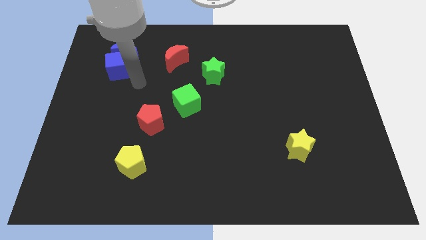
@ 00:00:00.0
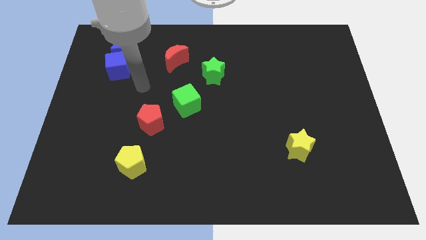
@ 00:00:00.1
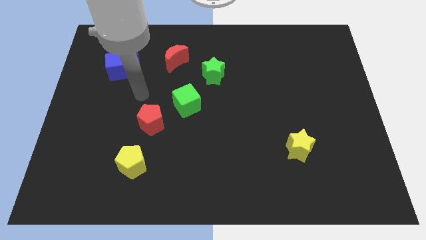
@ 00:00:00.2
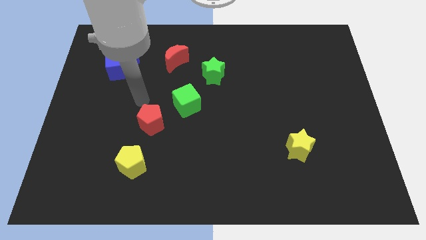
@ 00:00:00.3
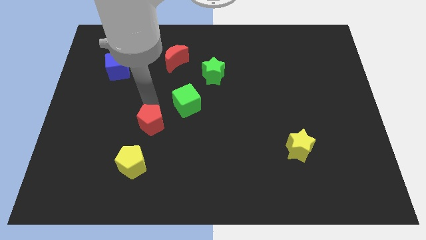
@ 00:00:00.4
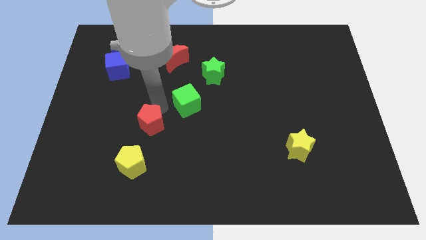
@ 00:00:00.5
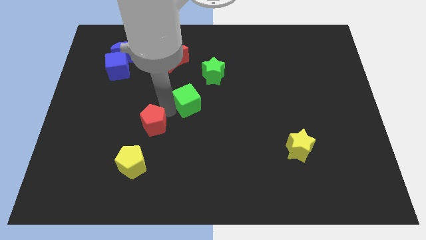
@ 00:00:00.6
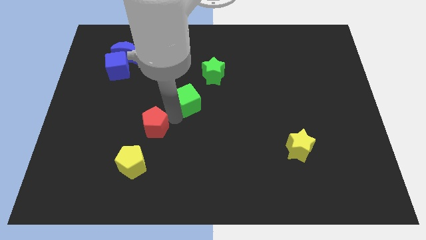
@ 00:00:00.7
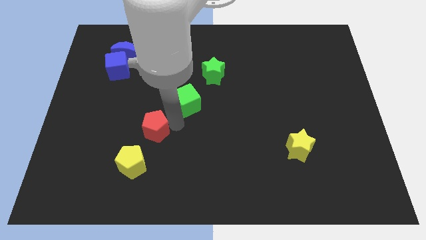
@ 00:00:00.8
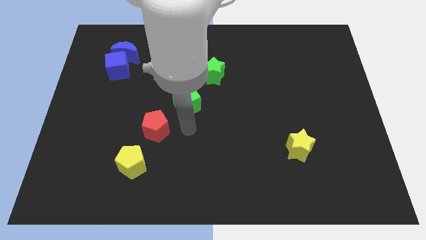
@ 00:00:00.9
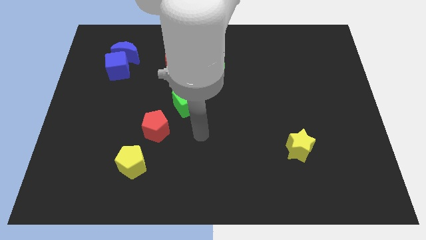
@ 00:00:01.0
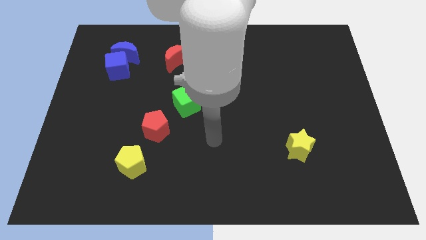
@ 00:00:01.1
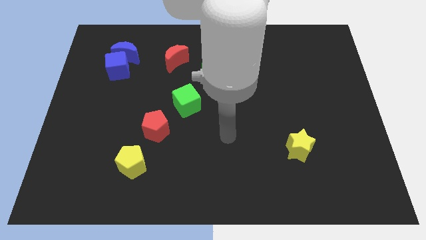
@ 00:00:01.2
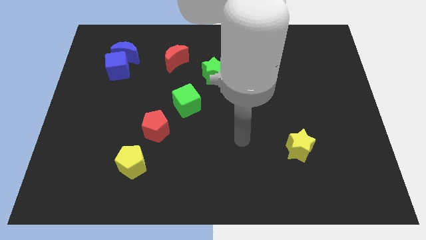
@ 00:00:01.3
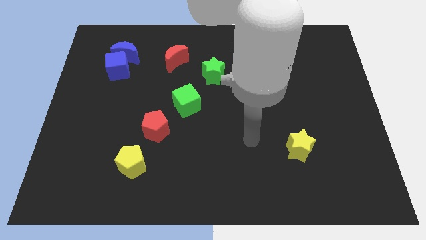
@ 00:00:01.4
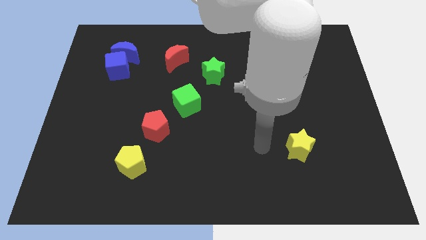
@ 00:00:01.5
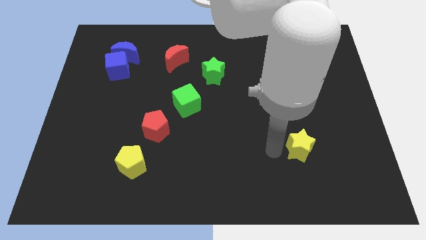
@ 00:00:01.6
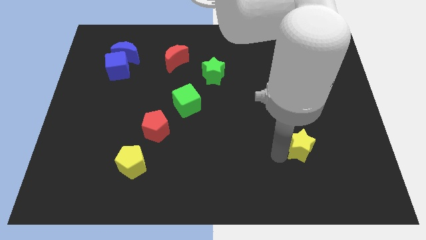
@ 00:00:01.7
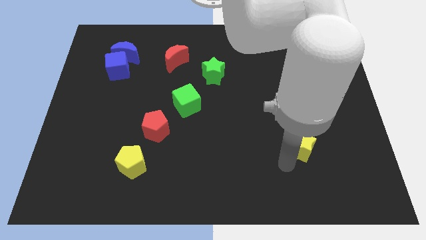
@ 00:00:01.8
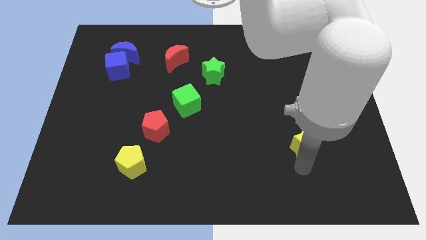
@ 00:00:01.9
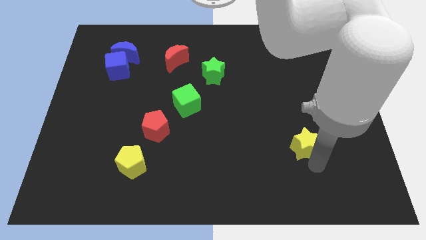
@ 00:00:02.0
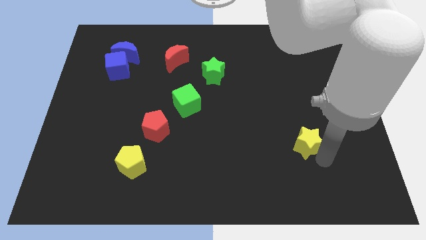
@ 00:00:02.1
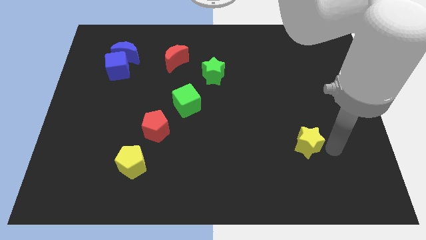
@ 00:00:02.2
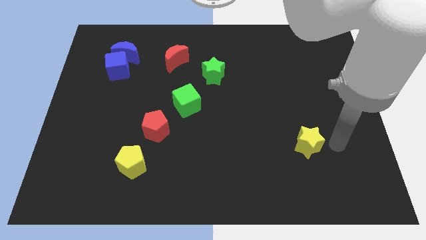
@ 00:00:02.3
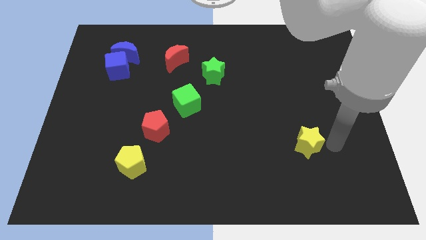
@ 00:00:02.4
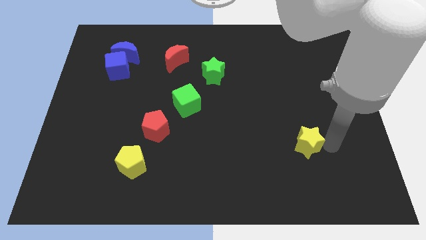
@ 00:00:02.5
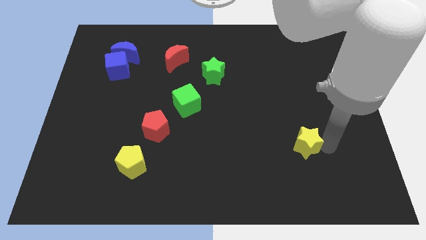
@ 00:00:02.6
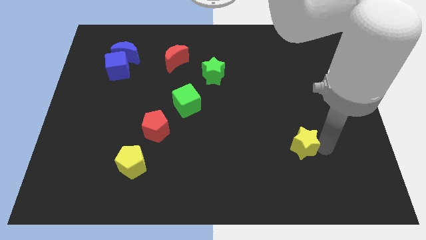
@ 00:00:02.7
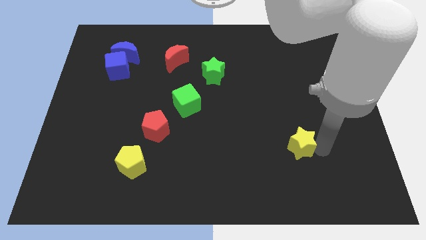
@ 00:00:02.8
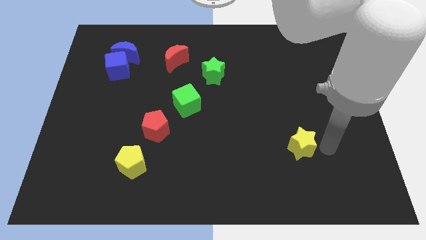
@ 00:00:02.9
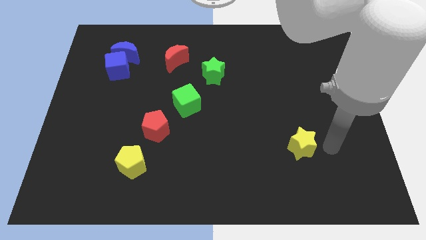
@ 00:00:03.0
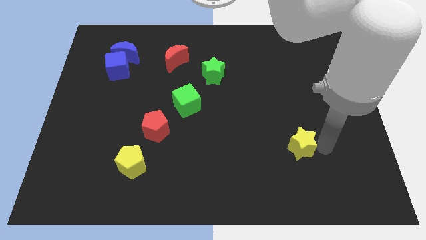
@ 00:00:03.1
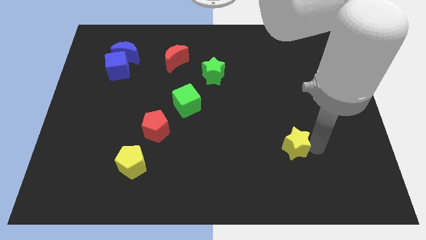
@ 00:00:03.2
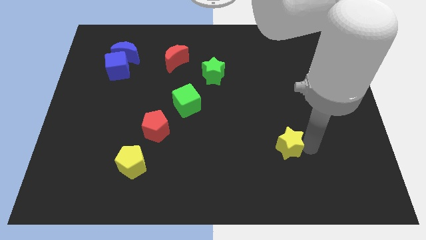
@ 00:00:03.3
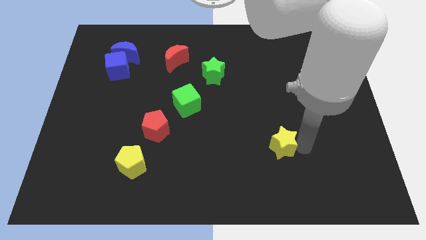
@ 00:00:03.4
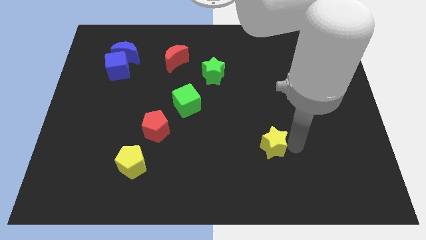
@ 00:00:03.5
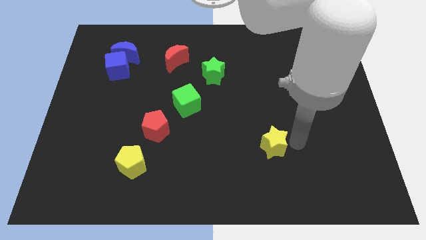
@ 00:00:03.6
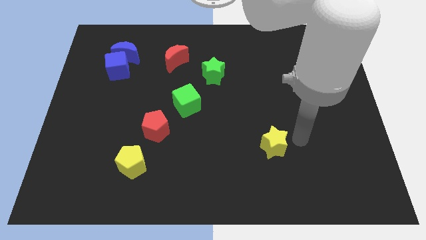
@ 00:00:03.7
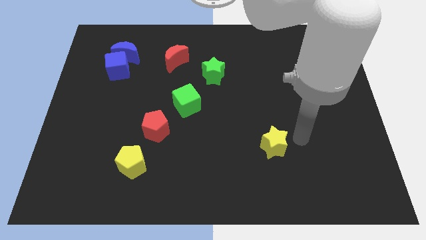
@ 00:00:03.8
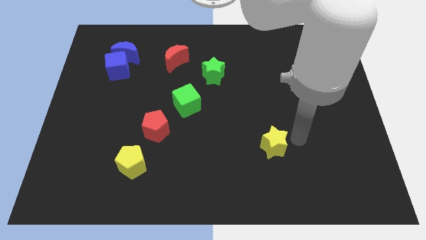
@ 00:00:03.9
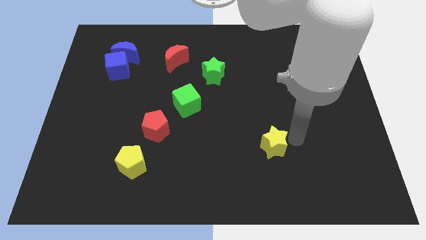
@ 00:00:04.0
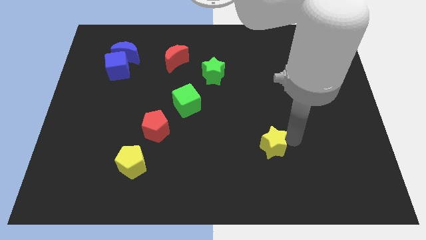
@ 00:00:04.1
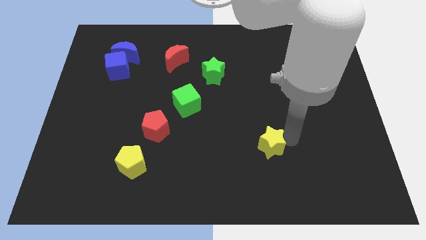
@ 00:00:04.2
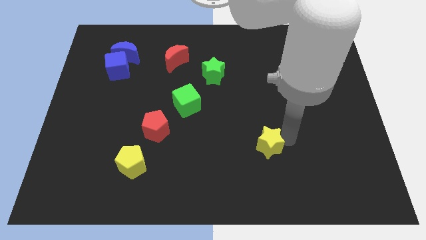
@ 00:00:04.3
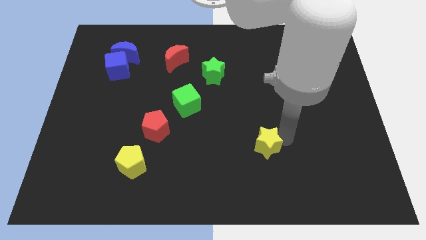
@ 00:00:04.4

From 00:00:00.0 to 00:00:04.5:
move the yellow star slightly left

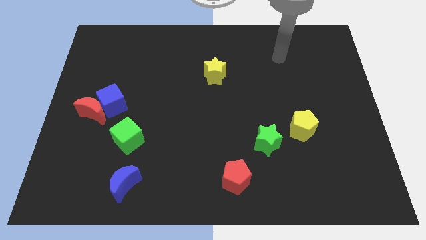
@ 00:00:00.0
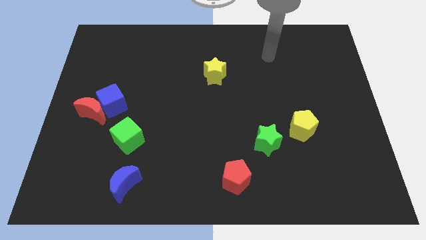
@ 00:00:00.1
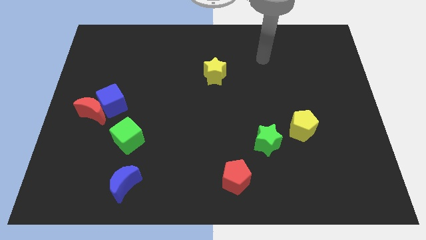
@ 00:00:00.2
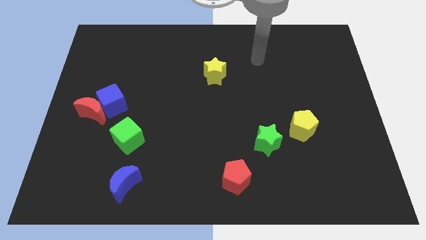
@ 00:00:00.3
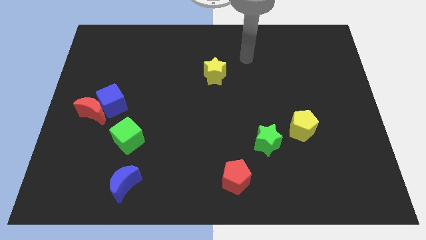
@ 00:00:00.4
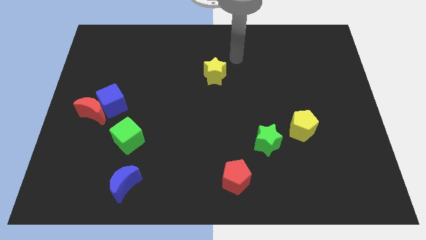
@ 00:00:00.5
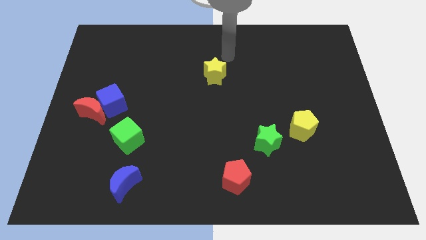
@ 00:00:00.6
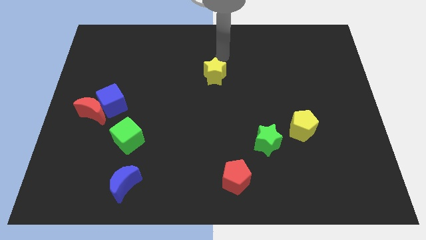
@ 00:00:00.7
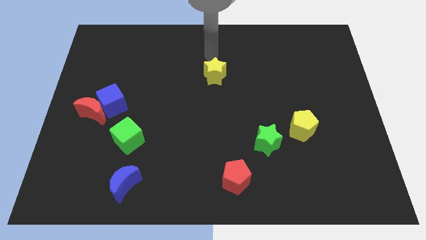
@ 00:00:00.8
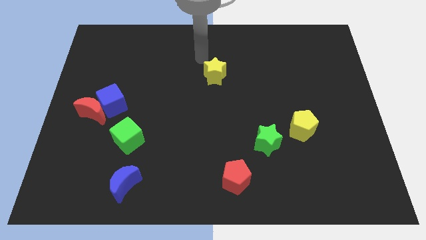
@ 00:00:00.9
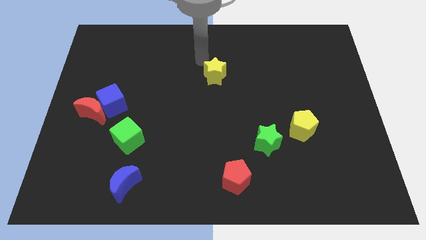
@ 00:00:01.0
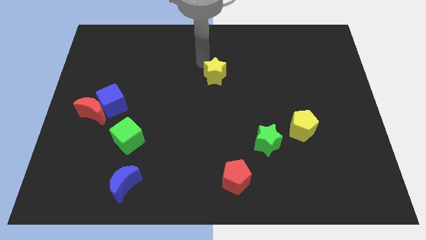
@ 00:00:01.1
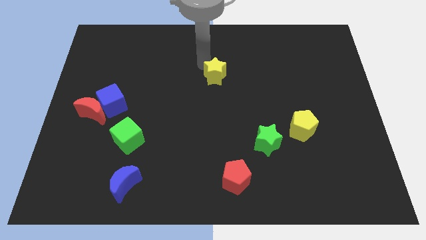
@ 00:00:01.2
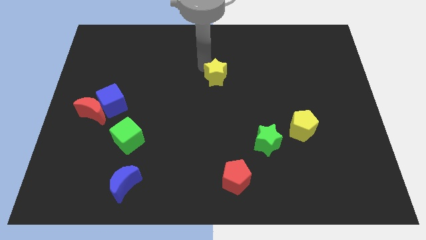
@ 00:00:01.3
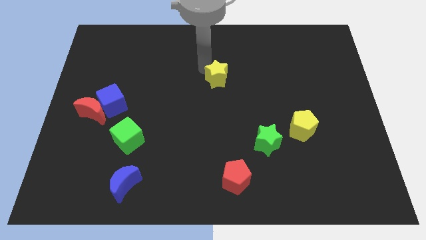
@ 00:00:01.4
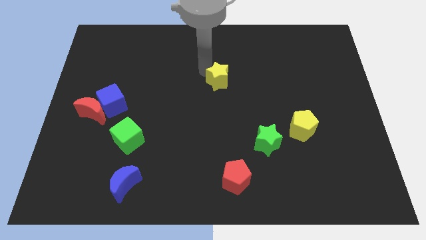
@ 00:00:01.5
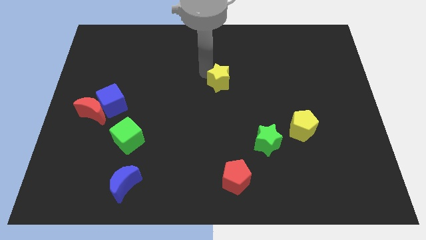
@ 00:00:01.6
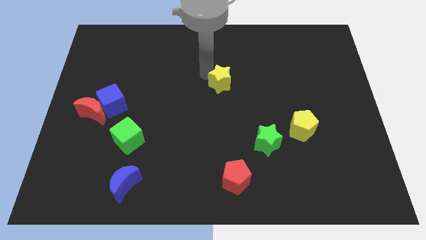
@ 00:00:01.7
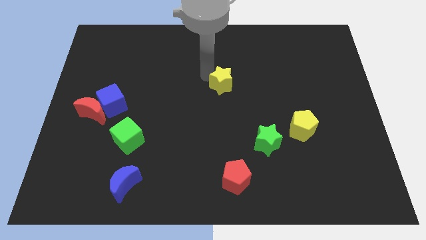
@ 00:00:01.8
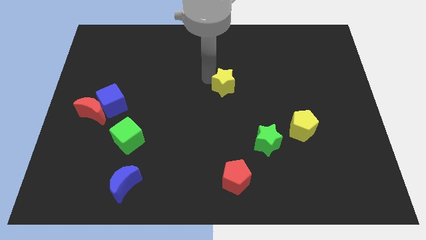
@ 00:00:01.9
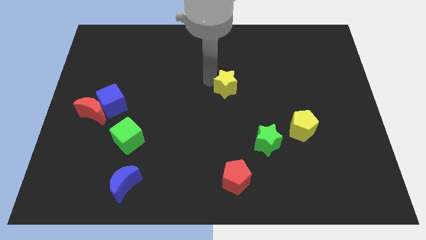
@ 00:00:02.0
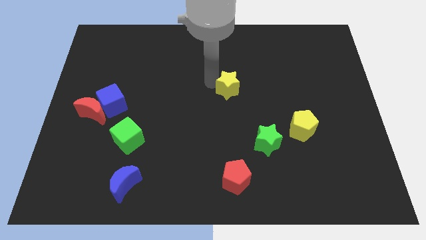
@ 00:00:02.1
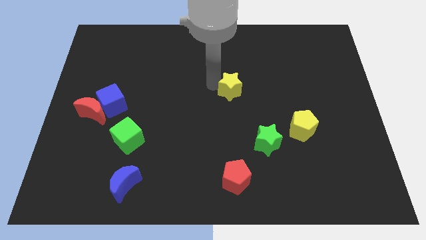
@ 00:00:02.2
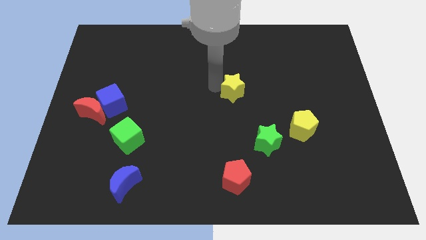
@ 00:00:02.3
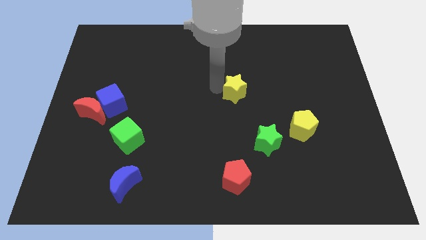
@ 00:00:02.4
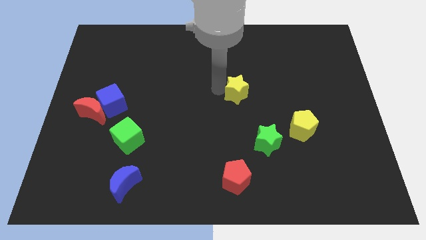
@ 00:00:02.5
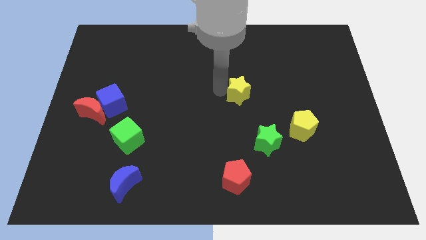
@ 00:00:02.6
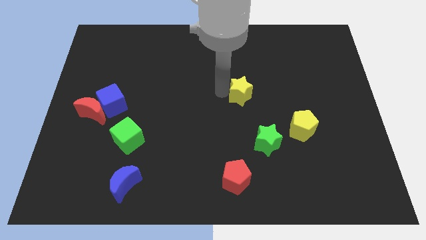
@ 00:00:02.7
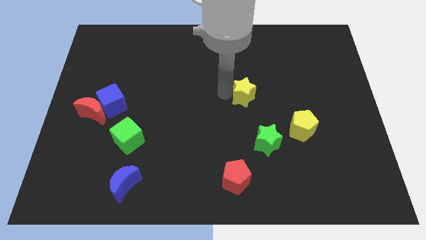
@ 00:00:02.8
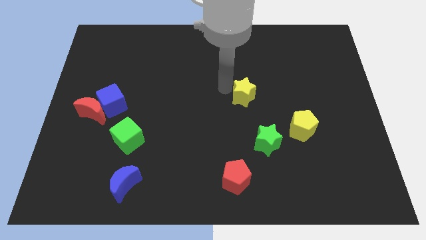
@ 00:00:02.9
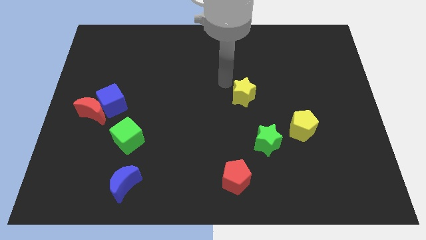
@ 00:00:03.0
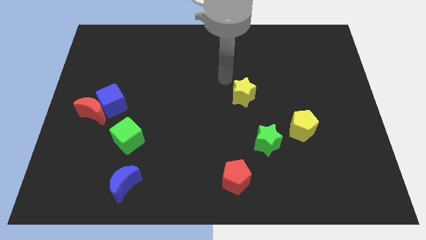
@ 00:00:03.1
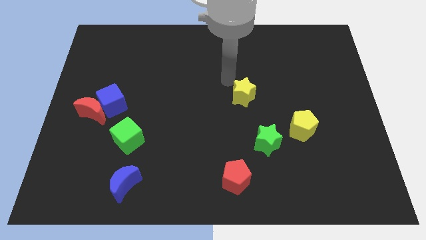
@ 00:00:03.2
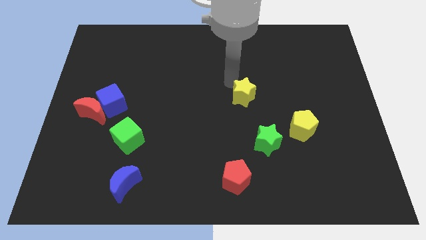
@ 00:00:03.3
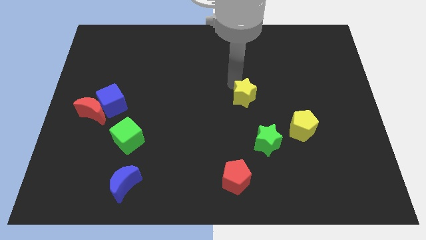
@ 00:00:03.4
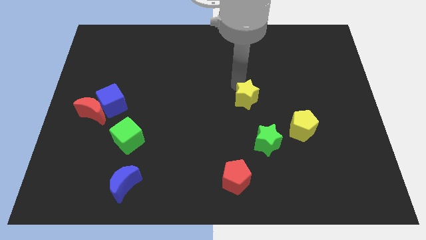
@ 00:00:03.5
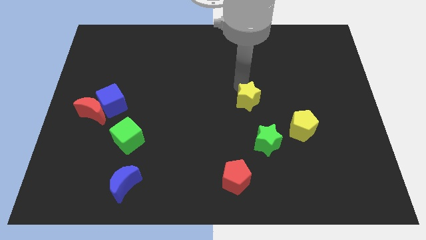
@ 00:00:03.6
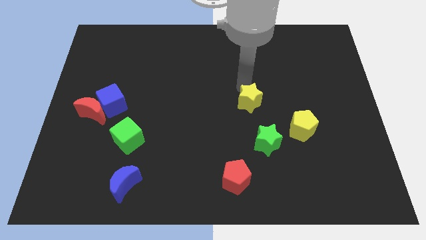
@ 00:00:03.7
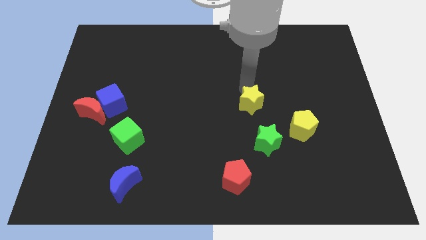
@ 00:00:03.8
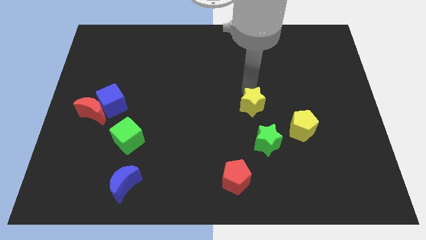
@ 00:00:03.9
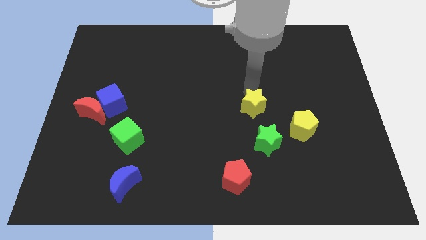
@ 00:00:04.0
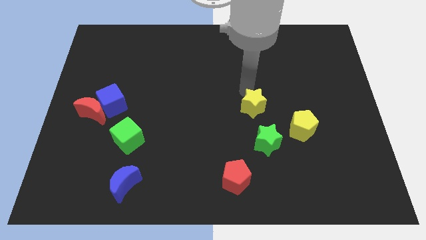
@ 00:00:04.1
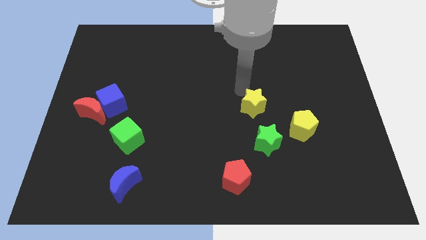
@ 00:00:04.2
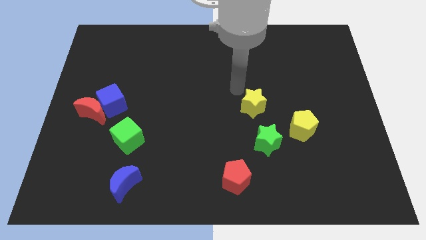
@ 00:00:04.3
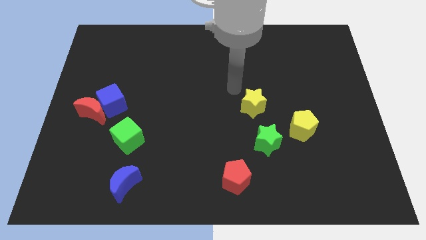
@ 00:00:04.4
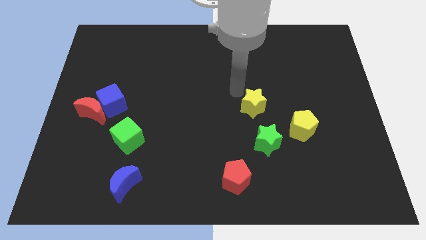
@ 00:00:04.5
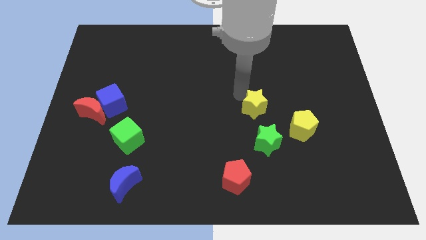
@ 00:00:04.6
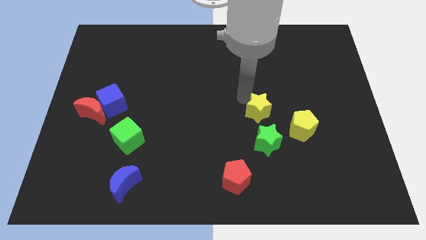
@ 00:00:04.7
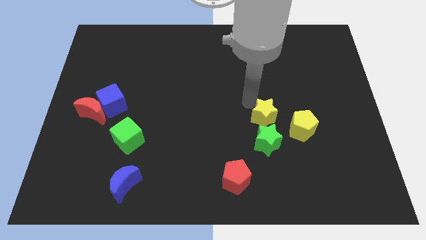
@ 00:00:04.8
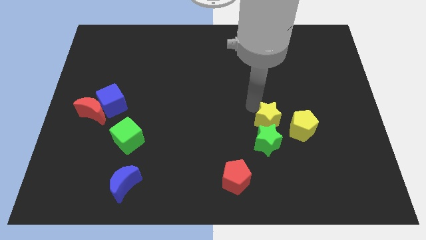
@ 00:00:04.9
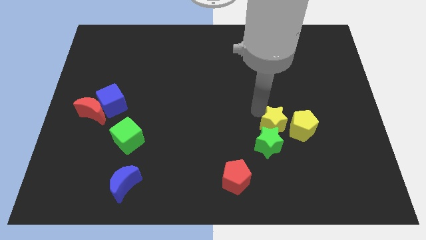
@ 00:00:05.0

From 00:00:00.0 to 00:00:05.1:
move the yellow star downwards and to the right diagonally
